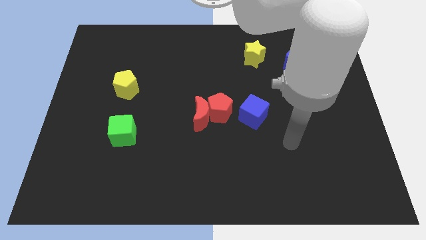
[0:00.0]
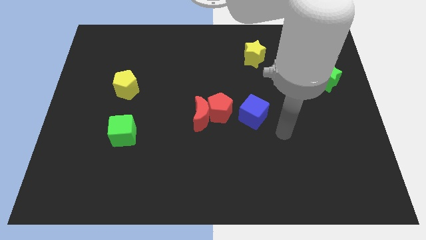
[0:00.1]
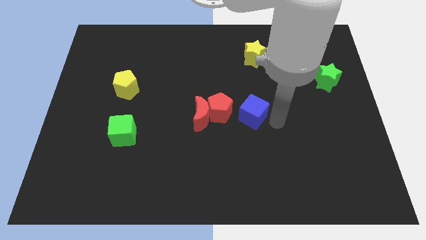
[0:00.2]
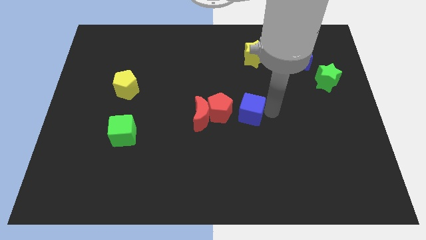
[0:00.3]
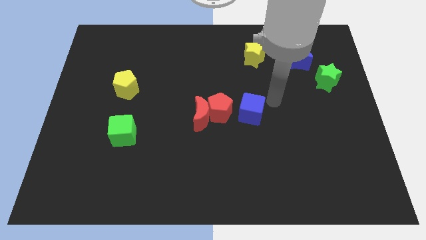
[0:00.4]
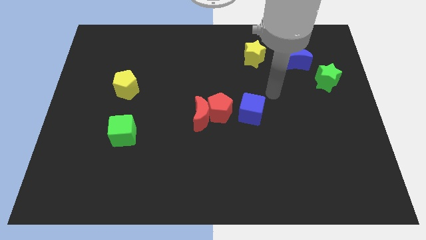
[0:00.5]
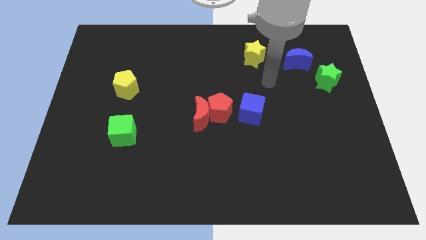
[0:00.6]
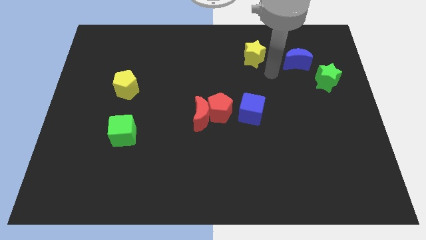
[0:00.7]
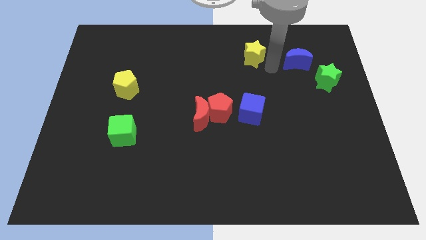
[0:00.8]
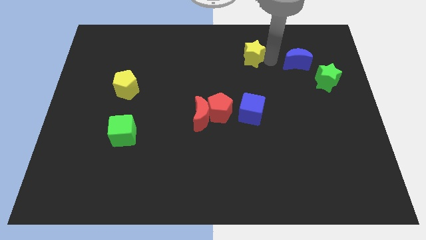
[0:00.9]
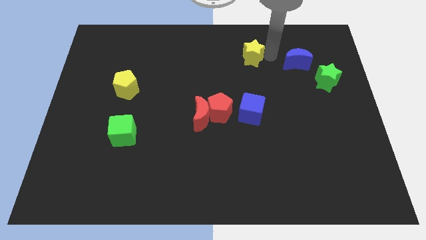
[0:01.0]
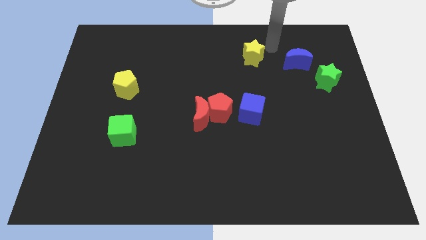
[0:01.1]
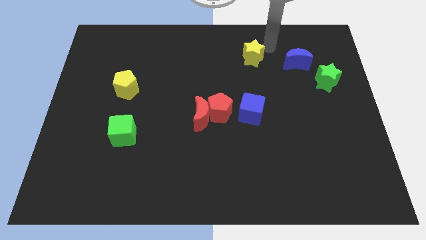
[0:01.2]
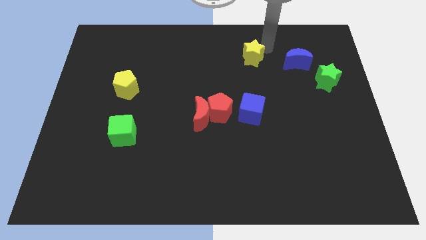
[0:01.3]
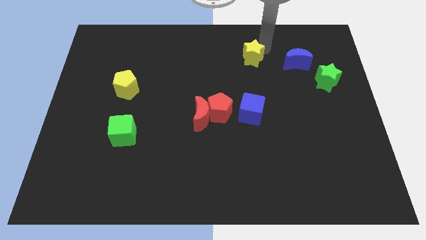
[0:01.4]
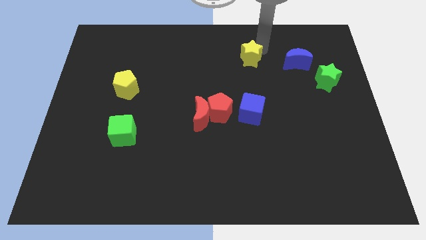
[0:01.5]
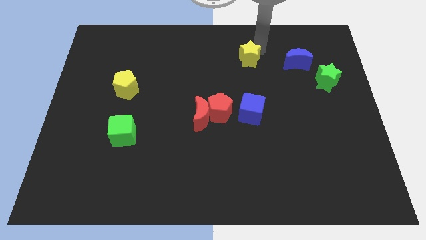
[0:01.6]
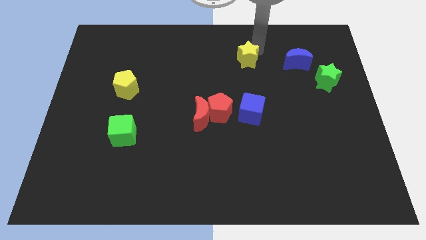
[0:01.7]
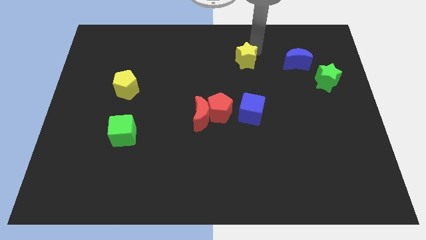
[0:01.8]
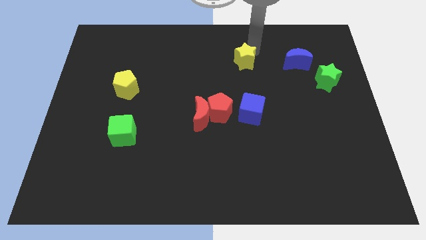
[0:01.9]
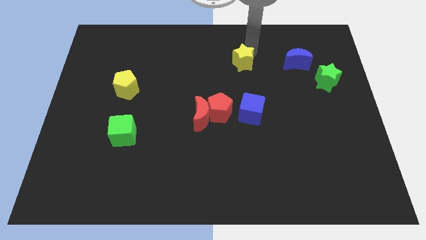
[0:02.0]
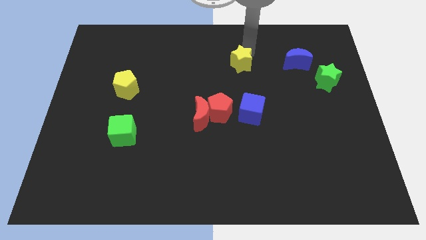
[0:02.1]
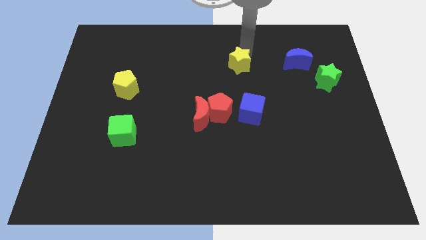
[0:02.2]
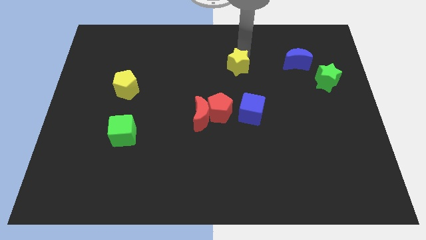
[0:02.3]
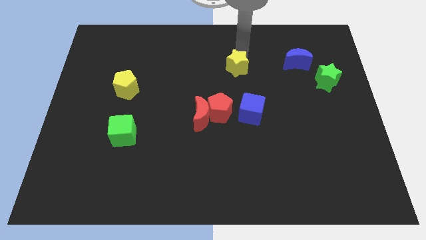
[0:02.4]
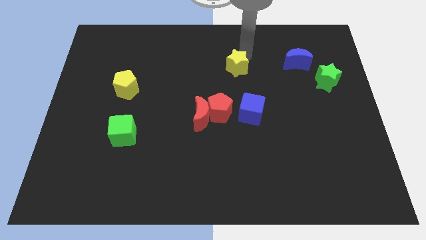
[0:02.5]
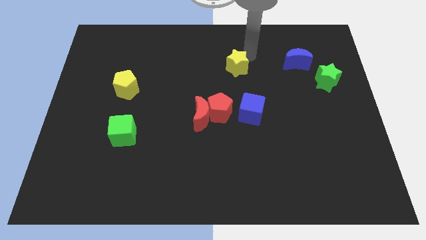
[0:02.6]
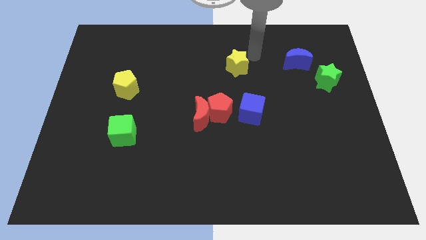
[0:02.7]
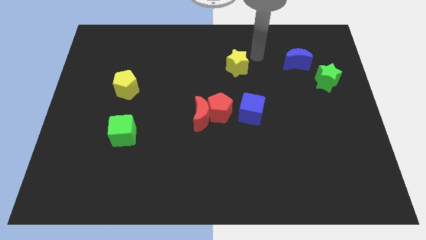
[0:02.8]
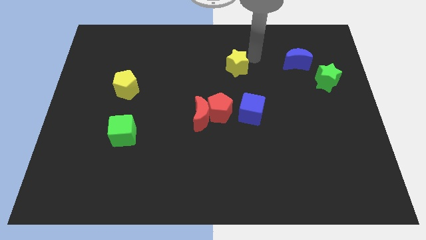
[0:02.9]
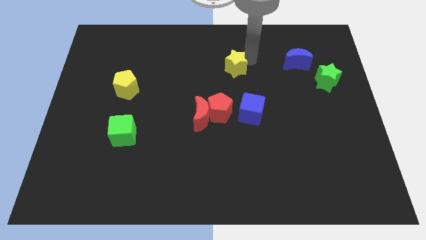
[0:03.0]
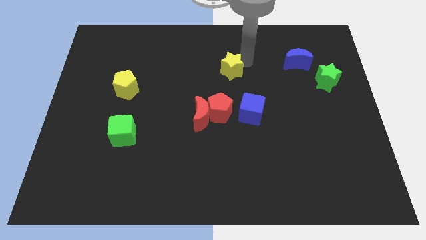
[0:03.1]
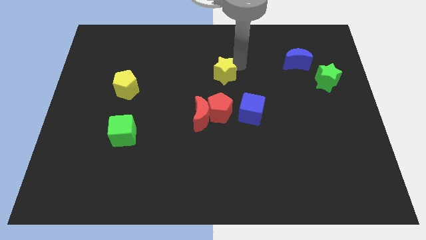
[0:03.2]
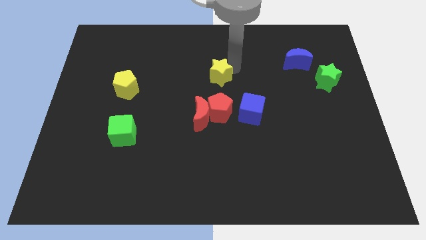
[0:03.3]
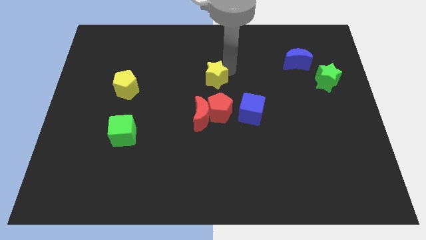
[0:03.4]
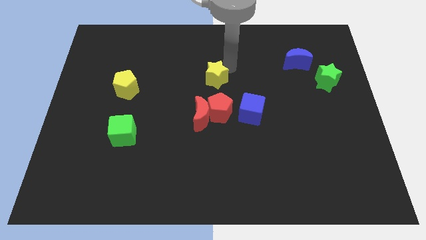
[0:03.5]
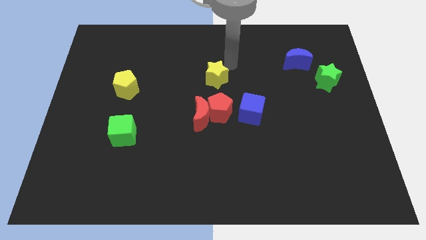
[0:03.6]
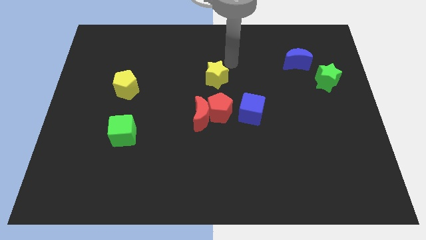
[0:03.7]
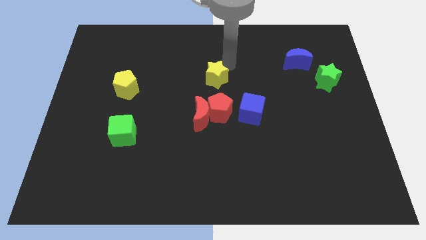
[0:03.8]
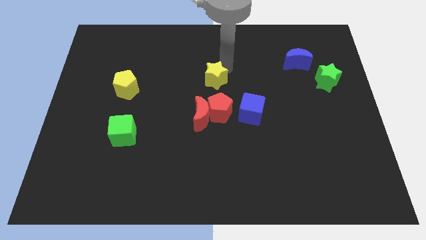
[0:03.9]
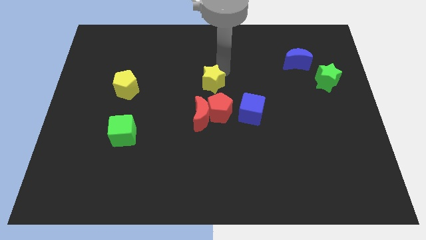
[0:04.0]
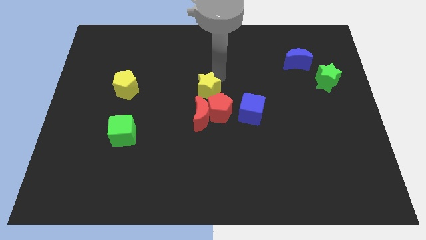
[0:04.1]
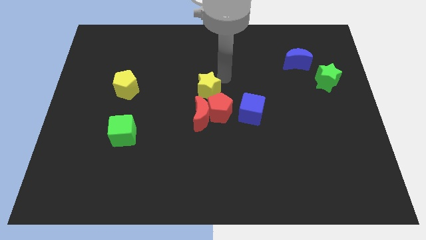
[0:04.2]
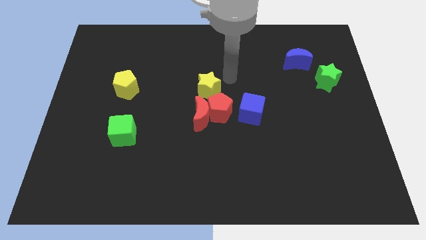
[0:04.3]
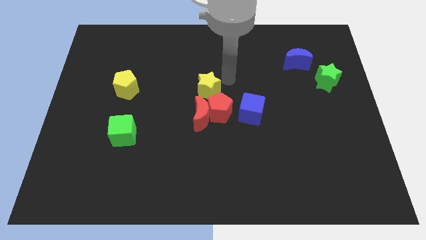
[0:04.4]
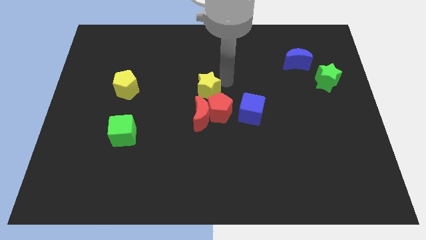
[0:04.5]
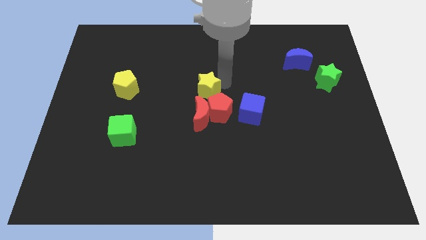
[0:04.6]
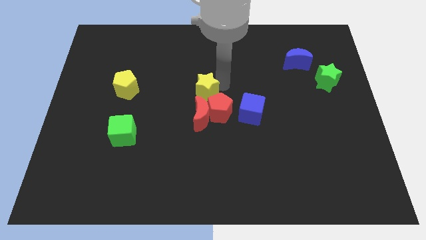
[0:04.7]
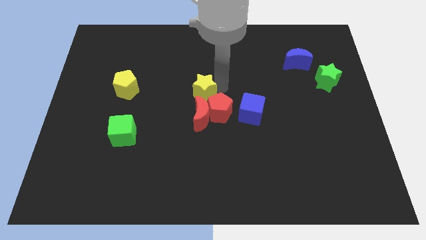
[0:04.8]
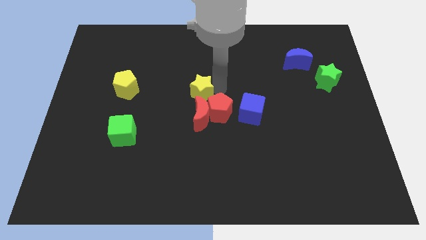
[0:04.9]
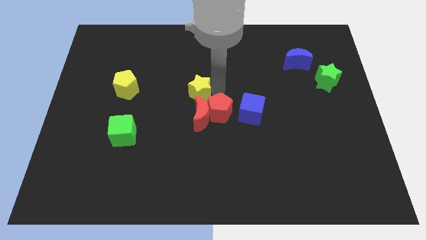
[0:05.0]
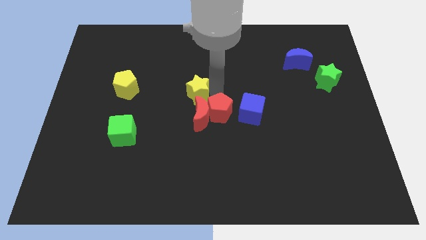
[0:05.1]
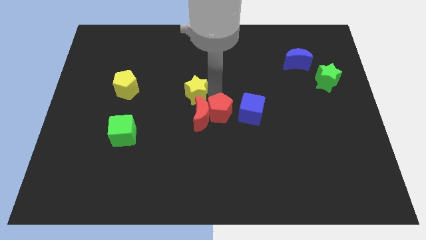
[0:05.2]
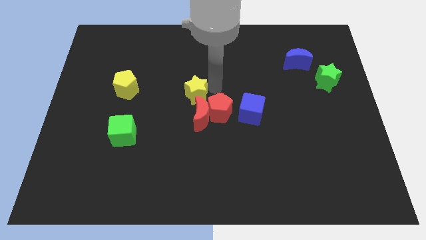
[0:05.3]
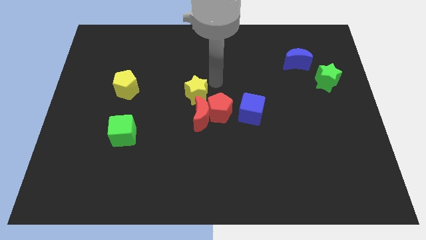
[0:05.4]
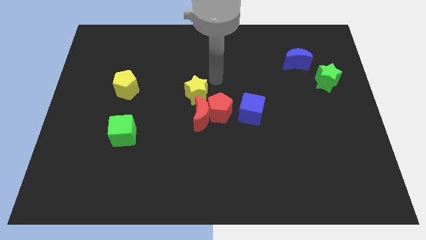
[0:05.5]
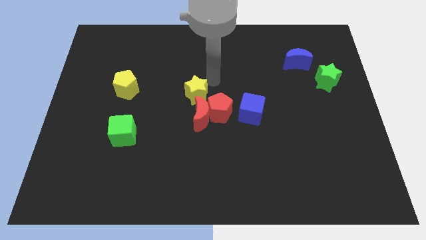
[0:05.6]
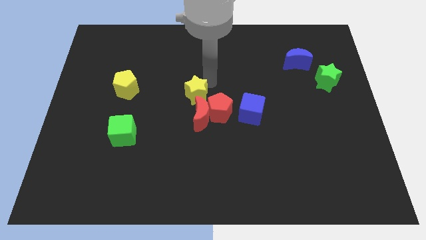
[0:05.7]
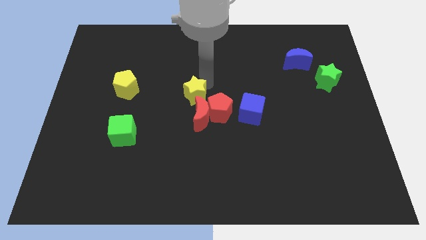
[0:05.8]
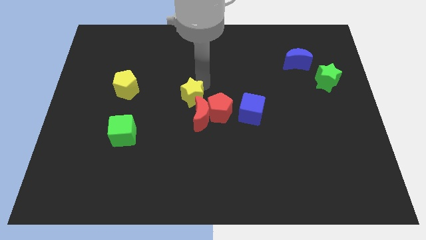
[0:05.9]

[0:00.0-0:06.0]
move the yellow star down and then left

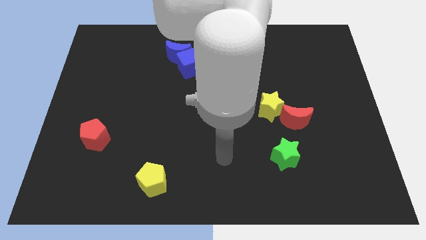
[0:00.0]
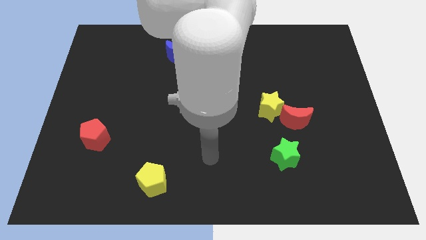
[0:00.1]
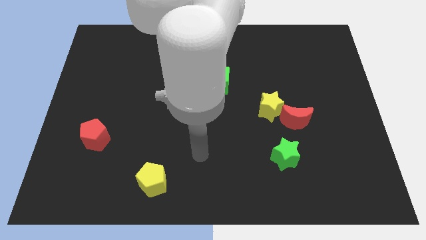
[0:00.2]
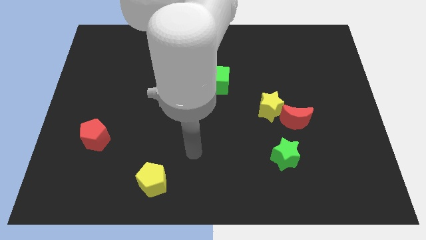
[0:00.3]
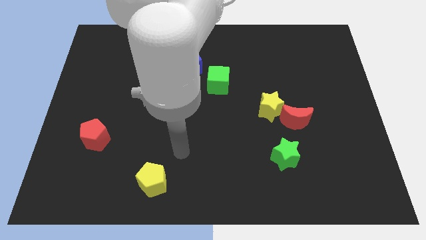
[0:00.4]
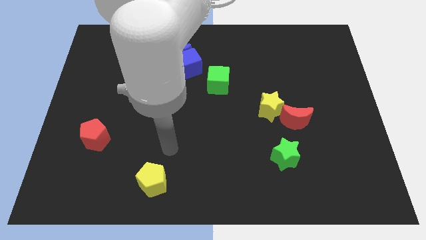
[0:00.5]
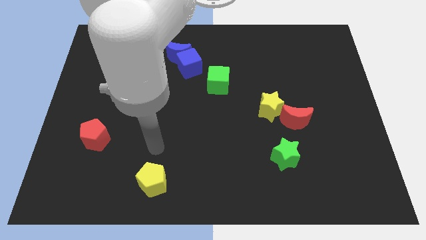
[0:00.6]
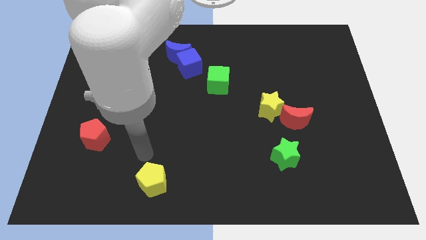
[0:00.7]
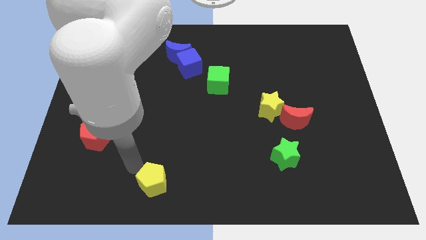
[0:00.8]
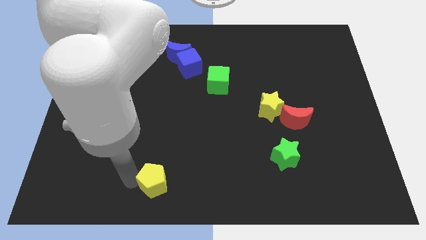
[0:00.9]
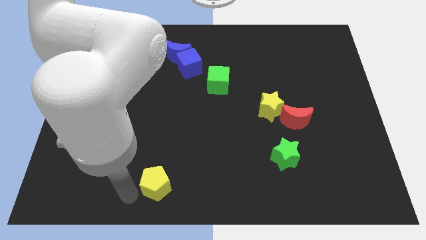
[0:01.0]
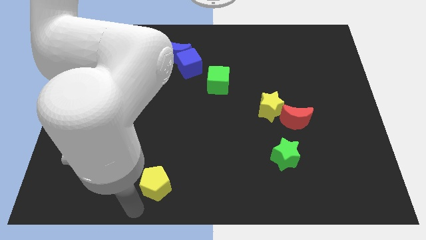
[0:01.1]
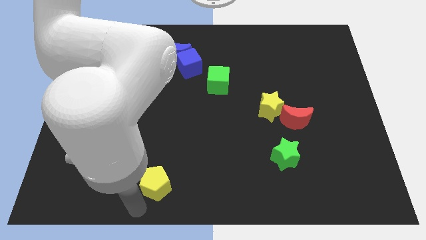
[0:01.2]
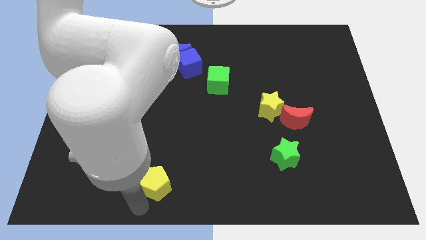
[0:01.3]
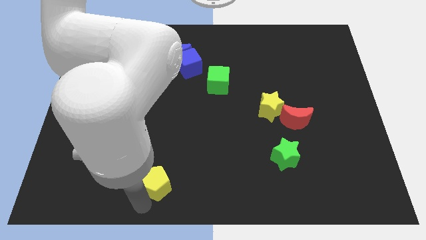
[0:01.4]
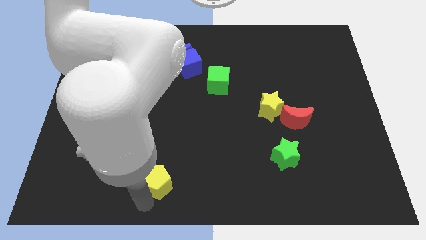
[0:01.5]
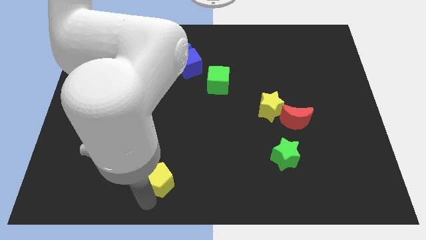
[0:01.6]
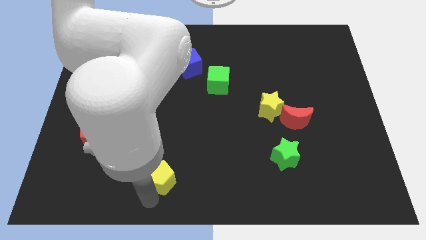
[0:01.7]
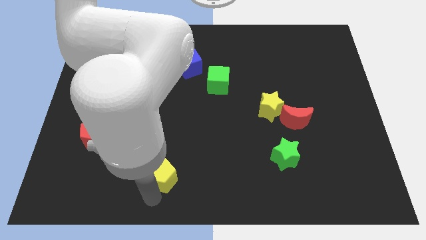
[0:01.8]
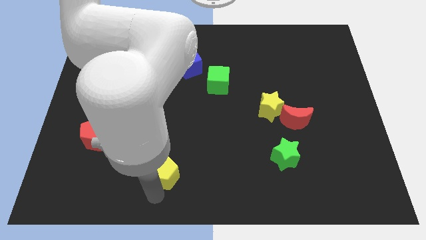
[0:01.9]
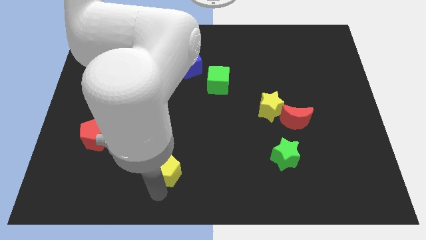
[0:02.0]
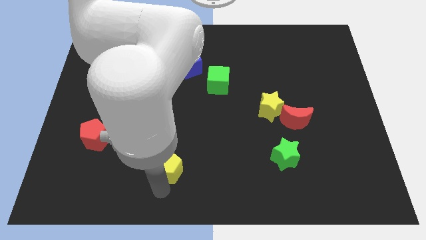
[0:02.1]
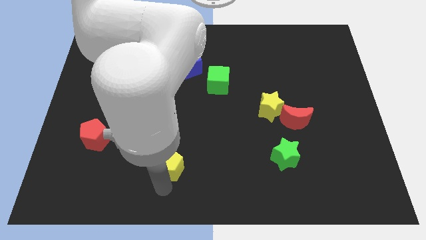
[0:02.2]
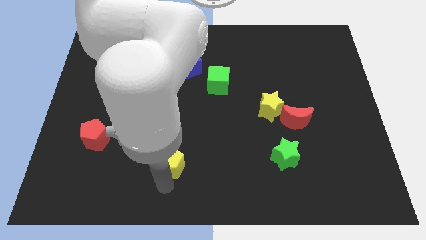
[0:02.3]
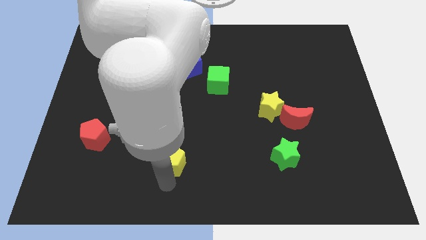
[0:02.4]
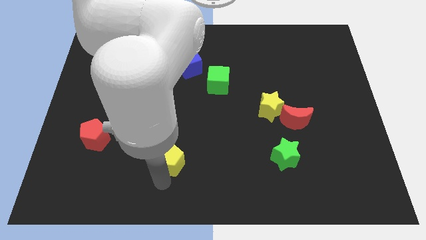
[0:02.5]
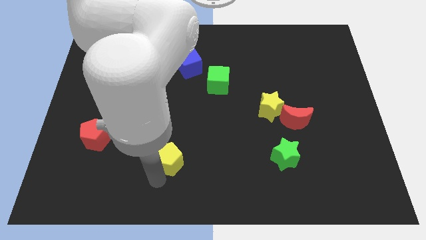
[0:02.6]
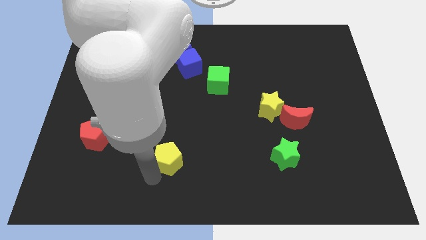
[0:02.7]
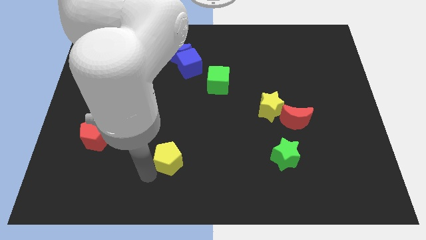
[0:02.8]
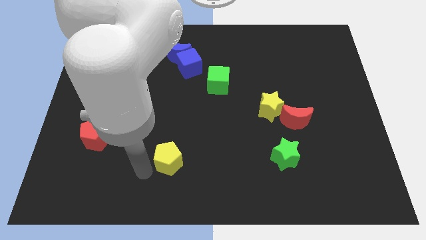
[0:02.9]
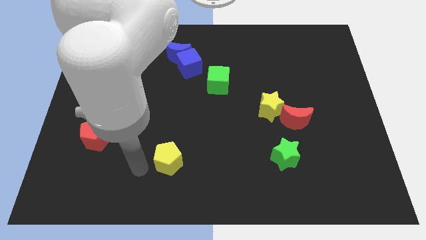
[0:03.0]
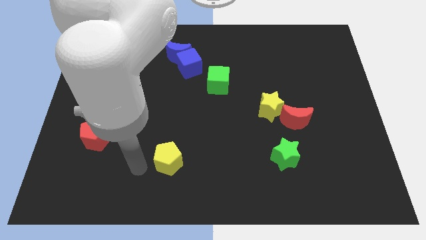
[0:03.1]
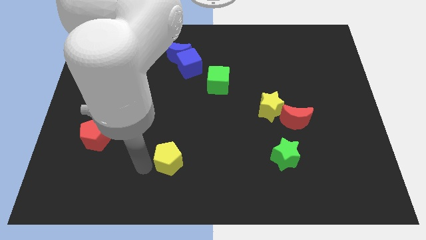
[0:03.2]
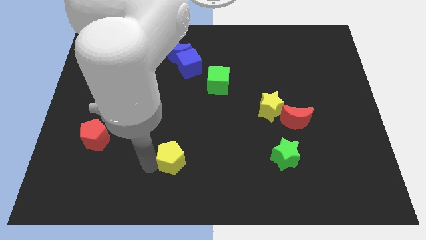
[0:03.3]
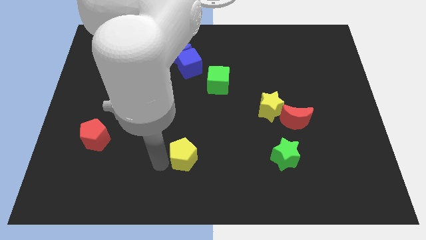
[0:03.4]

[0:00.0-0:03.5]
push the yellow pentagon up and then right a little bit
